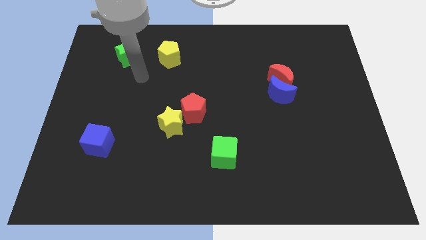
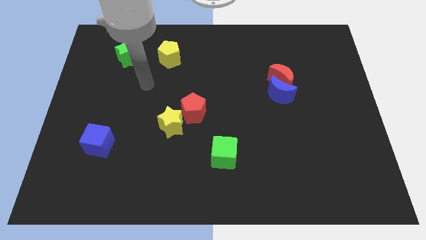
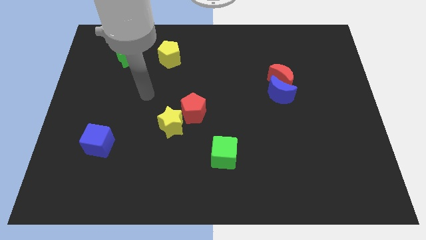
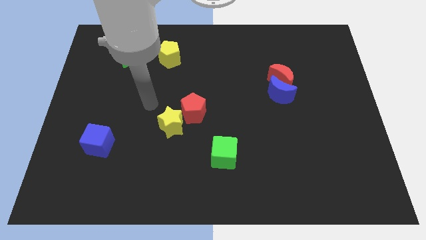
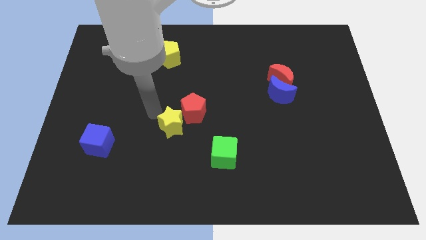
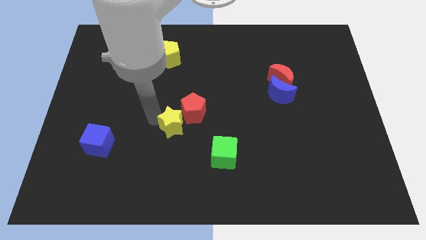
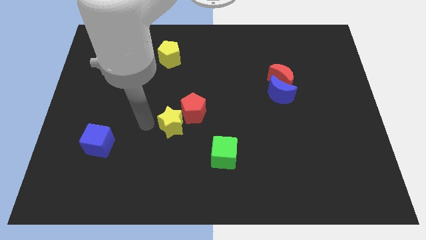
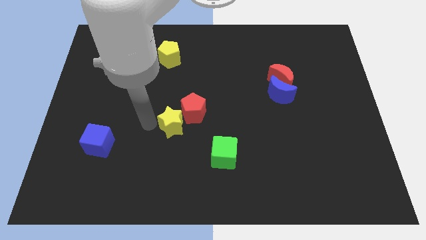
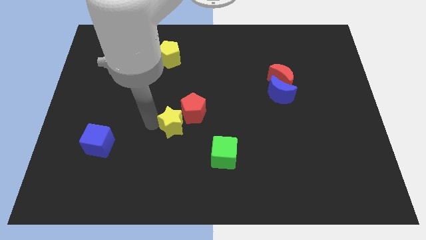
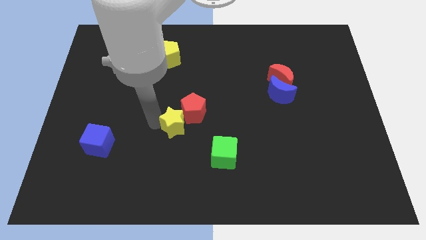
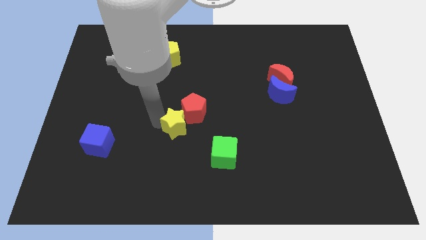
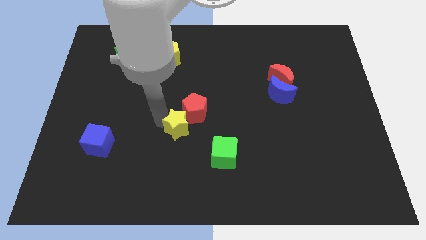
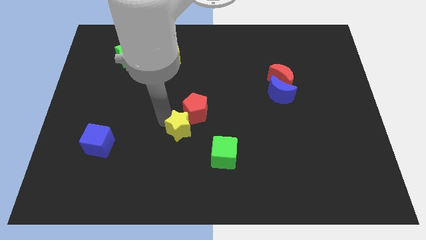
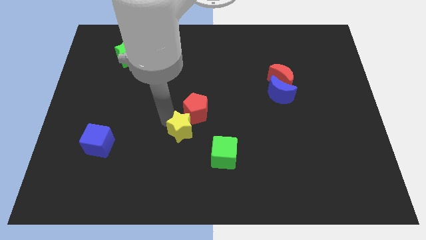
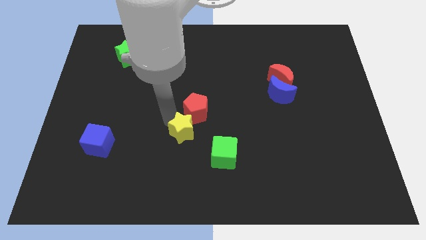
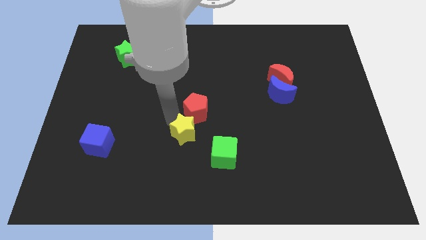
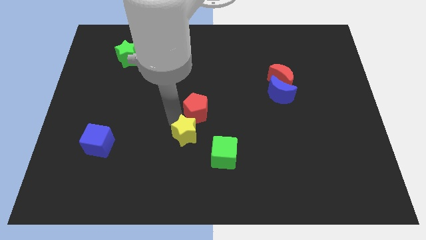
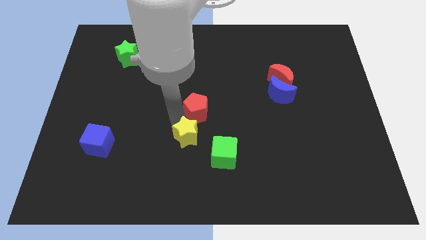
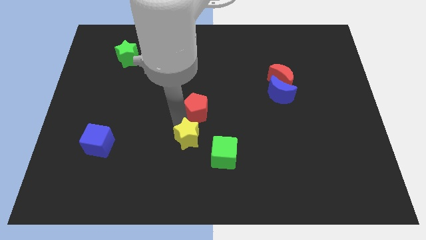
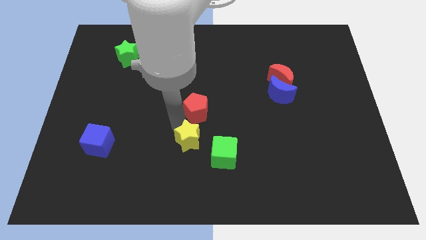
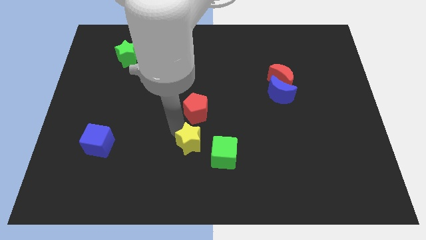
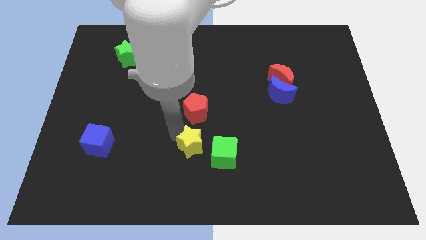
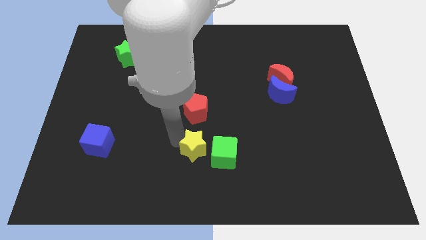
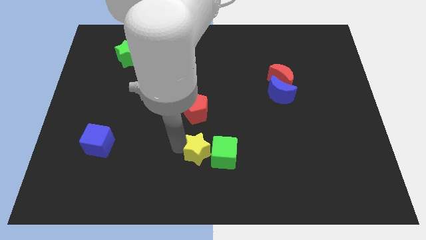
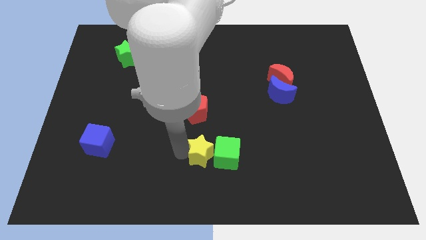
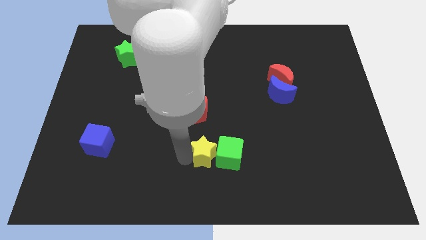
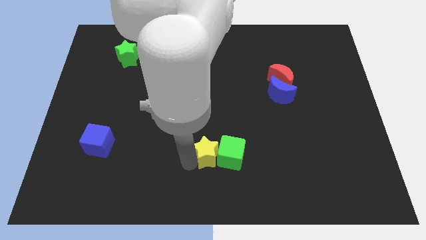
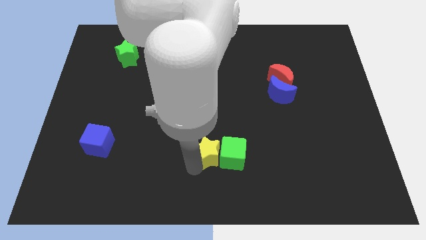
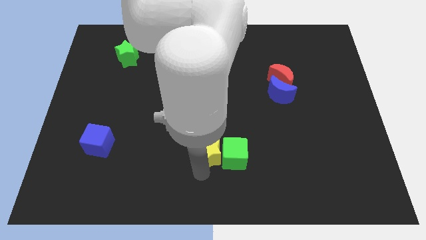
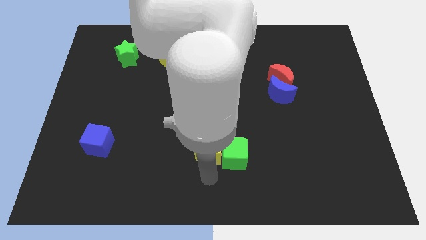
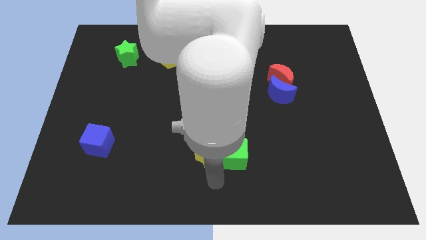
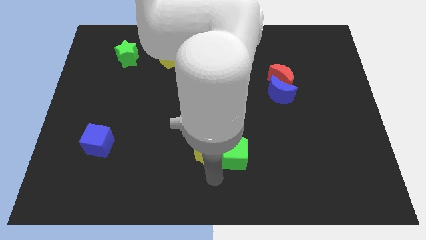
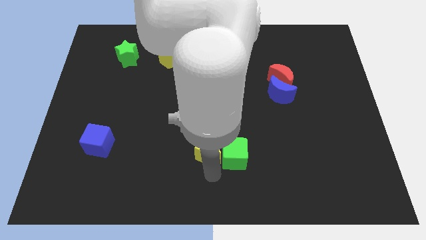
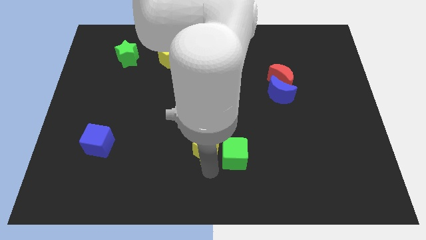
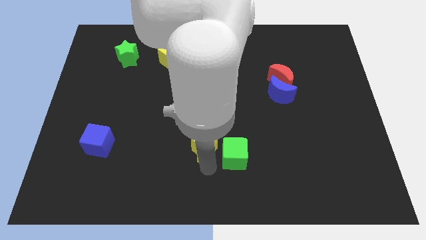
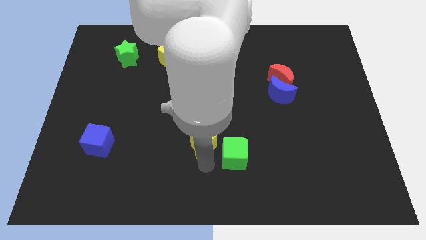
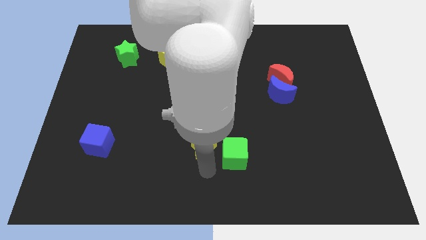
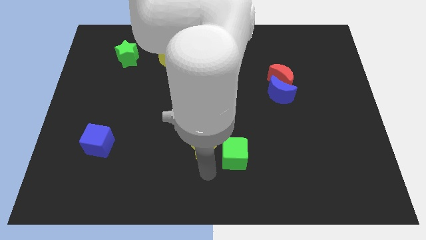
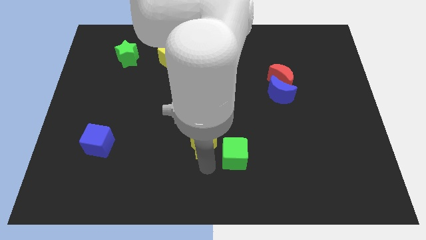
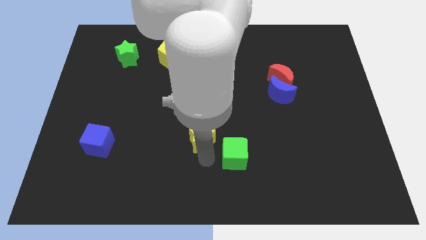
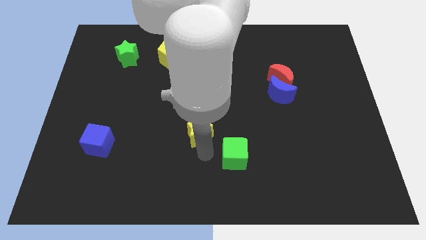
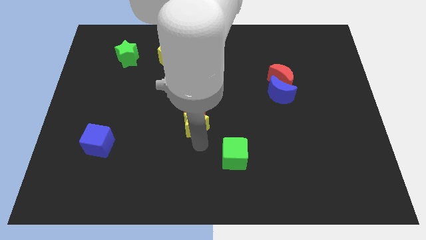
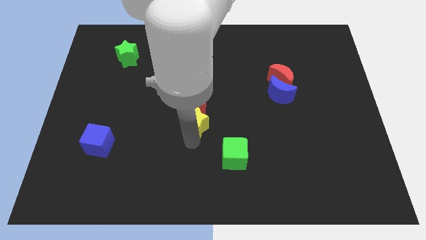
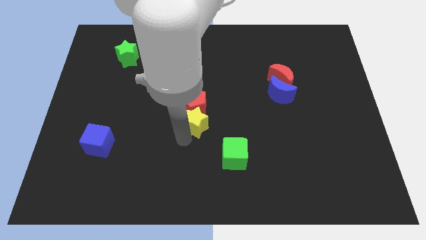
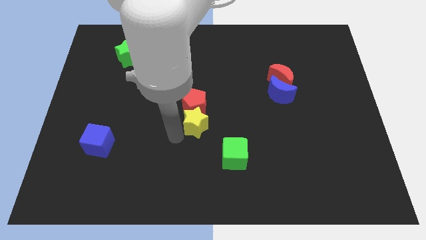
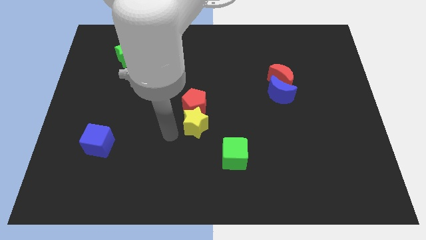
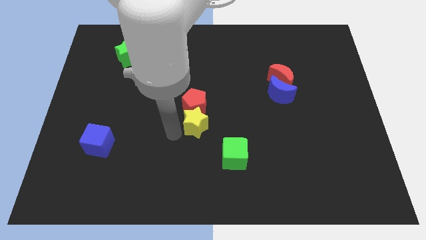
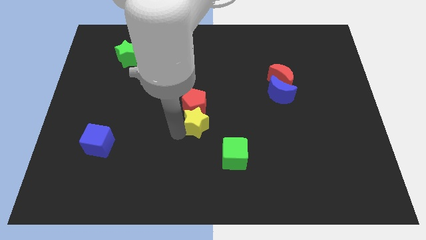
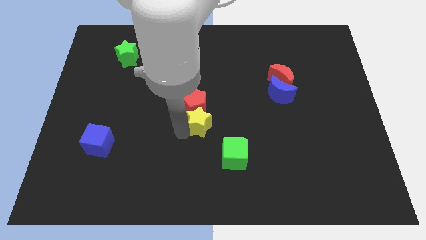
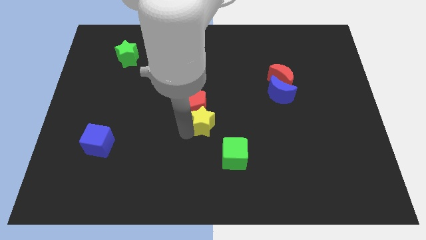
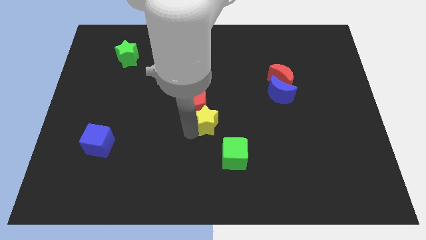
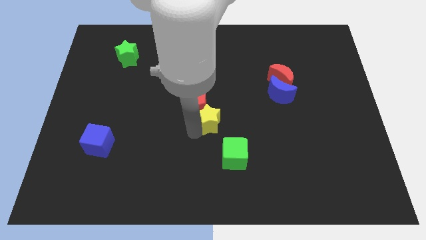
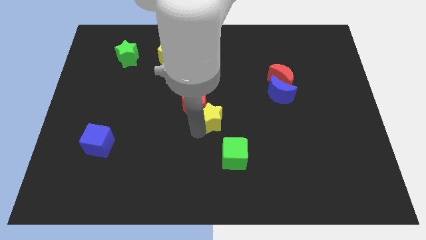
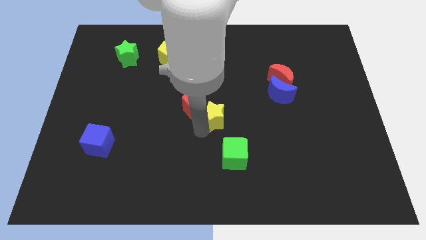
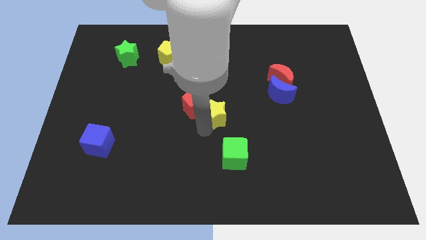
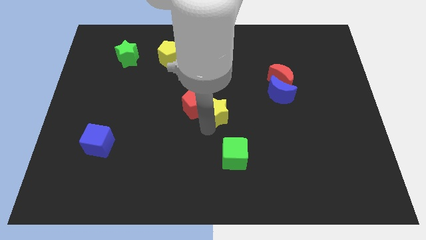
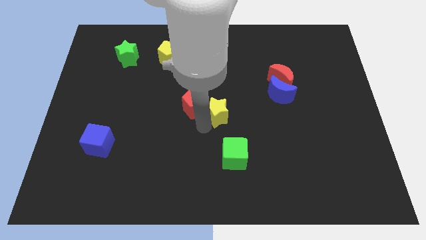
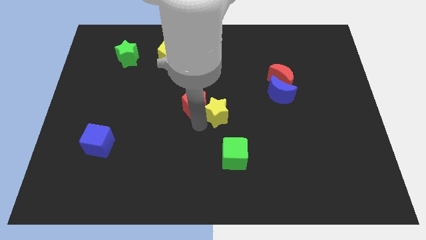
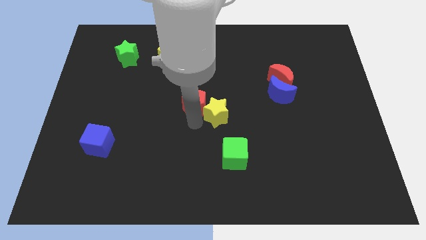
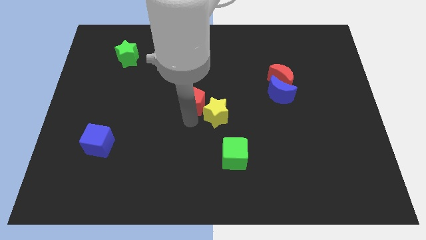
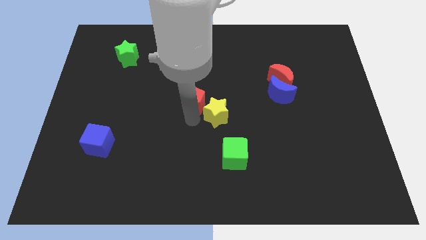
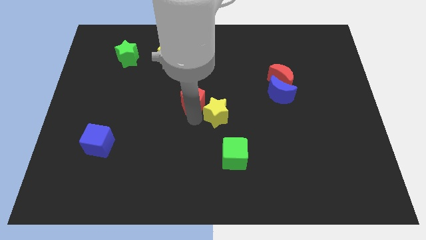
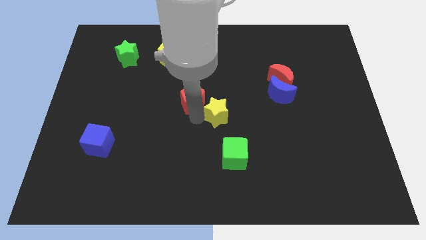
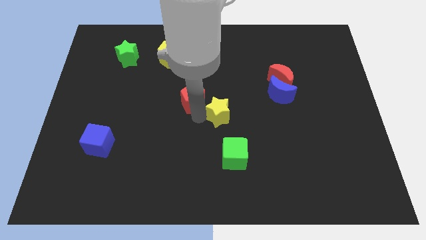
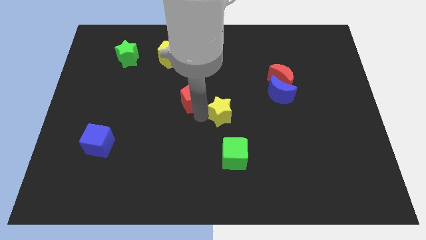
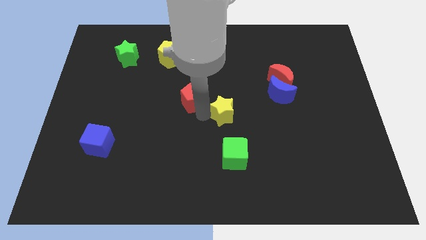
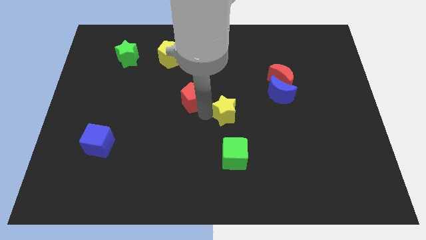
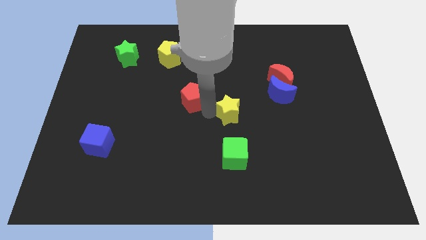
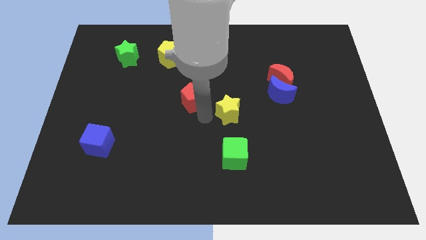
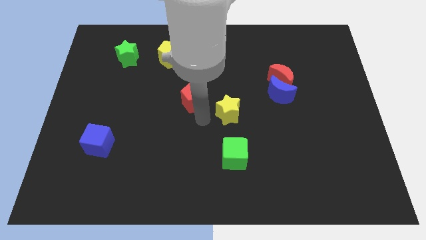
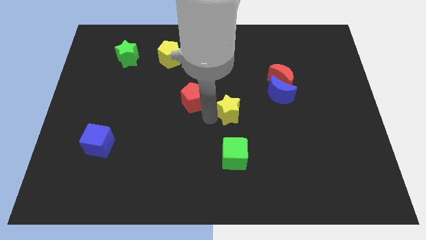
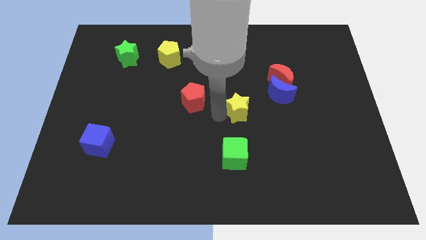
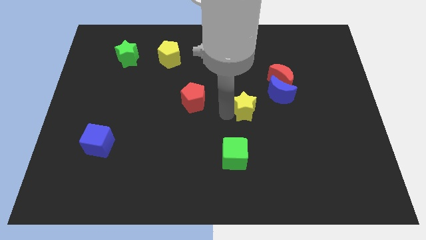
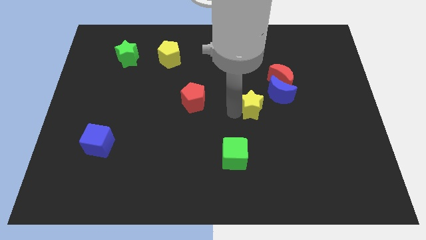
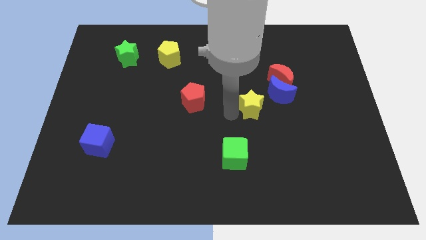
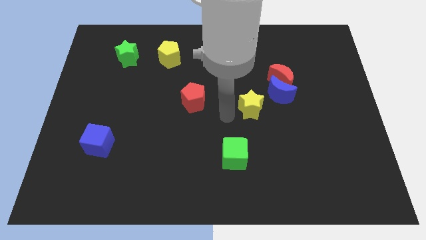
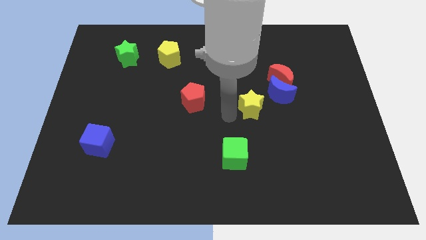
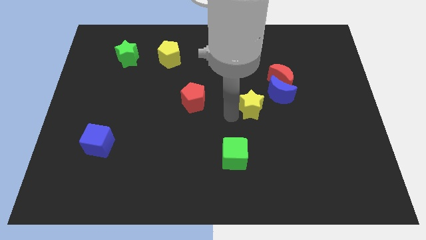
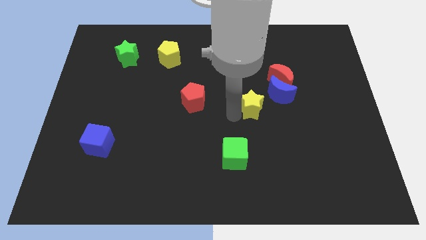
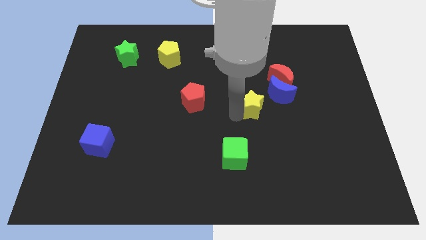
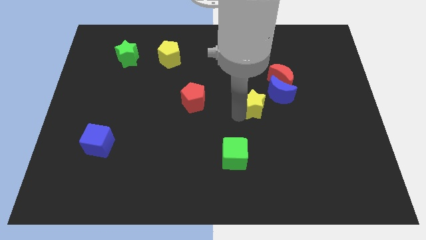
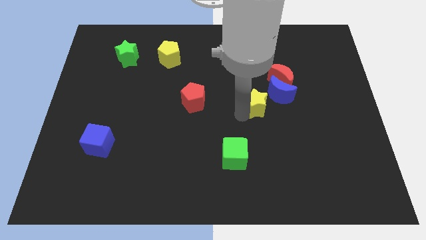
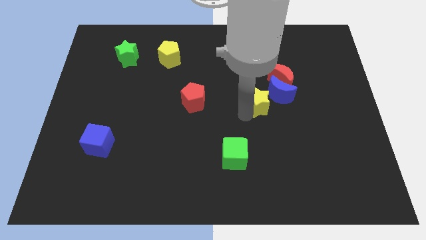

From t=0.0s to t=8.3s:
push the yellow star to the blue moon
